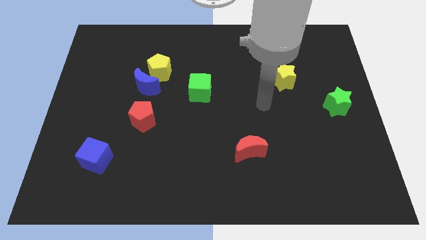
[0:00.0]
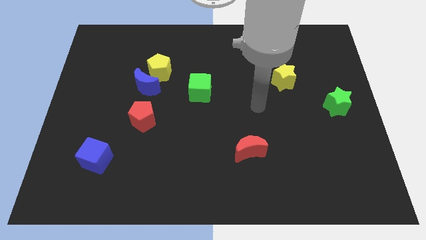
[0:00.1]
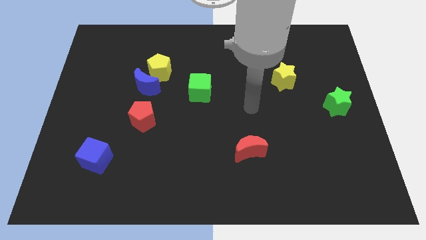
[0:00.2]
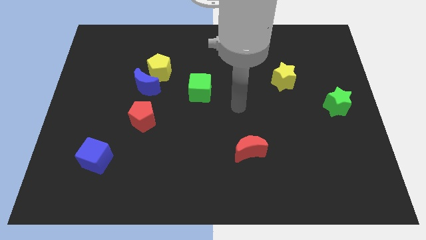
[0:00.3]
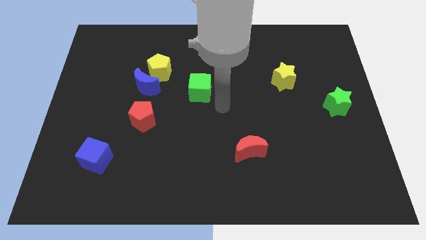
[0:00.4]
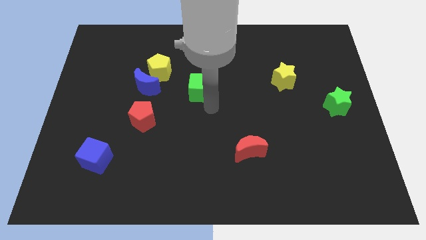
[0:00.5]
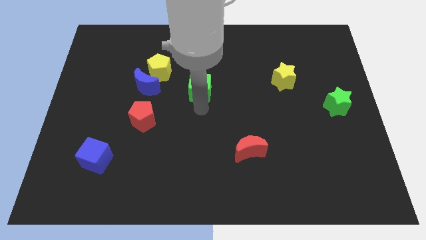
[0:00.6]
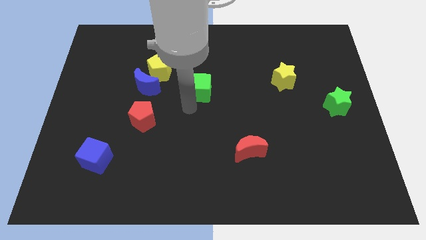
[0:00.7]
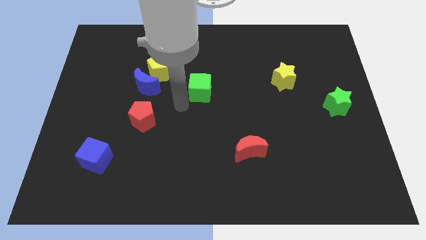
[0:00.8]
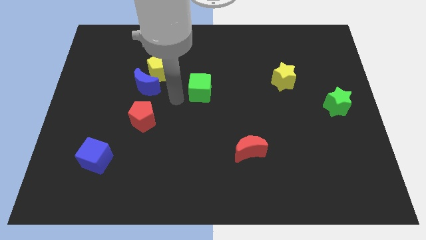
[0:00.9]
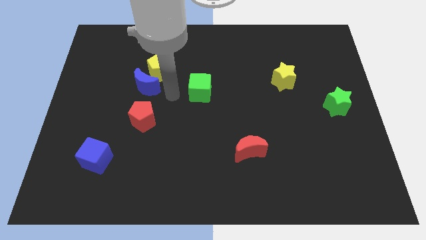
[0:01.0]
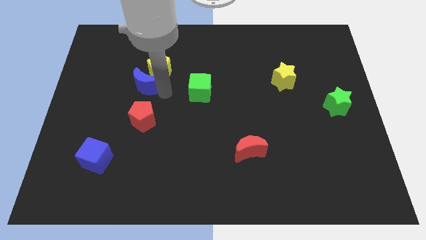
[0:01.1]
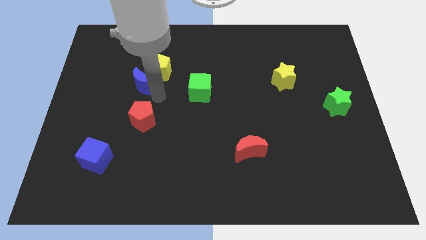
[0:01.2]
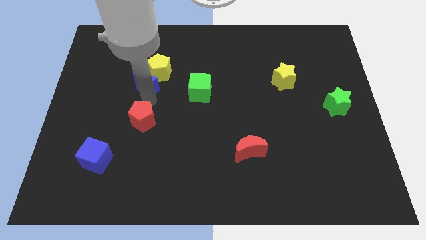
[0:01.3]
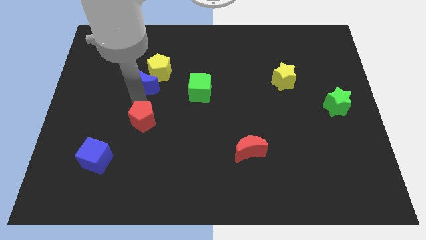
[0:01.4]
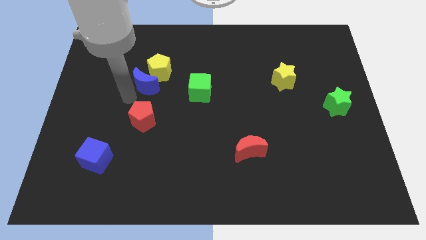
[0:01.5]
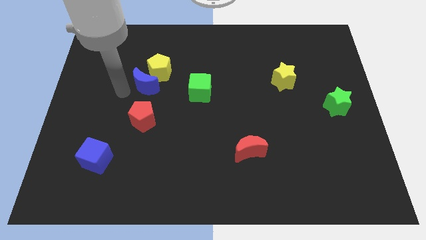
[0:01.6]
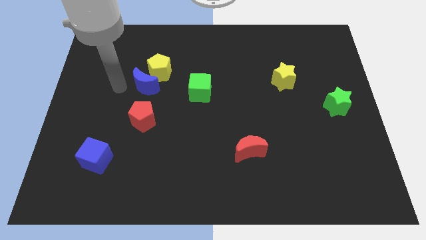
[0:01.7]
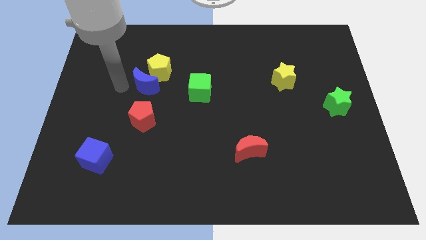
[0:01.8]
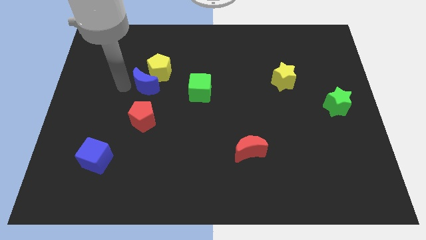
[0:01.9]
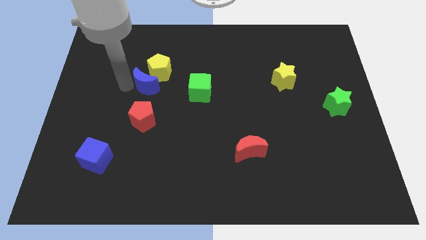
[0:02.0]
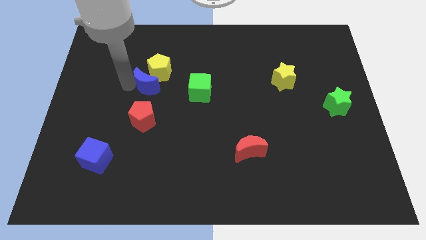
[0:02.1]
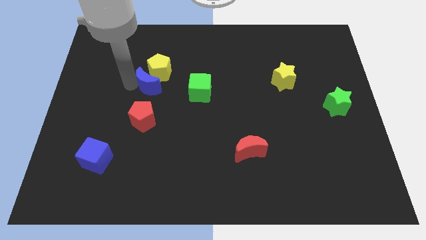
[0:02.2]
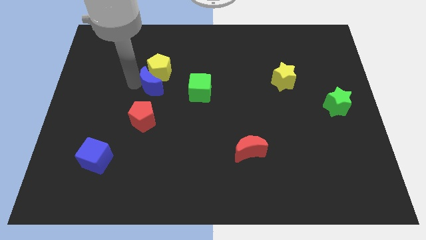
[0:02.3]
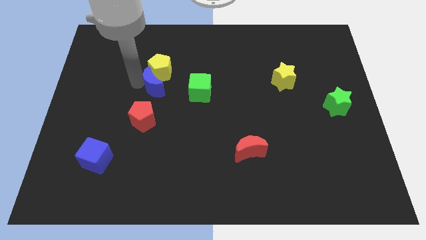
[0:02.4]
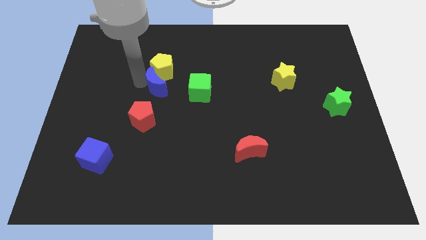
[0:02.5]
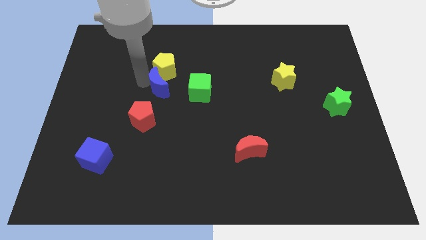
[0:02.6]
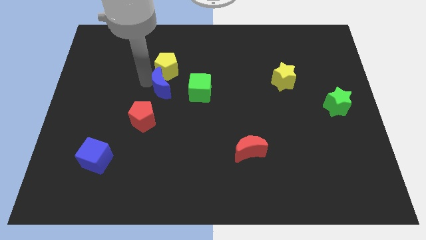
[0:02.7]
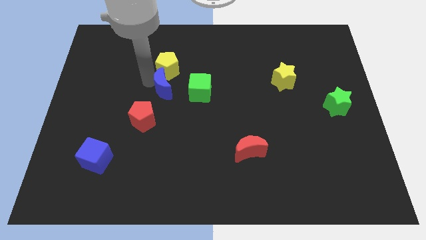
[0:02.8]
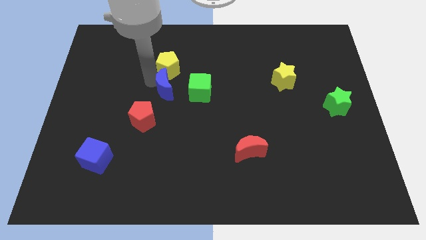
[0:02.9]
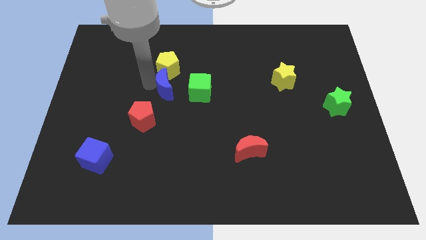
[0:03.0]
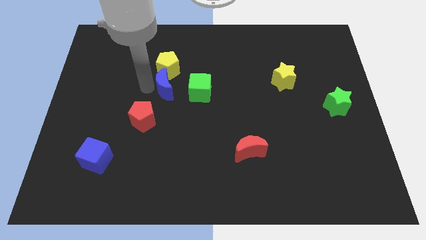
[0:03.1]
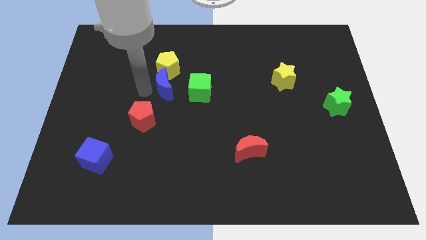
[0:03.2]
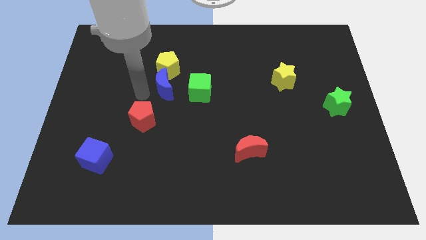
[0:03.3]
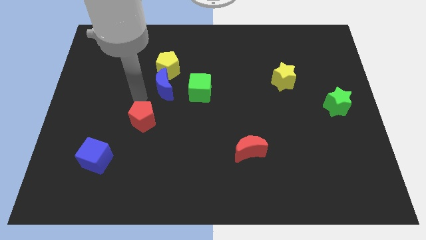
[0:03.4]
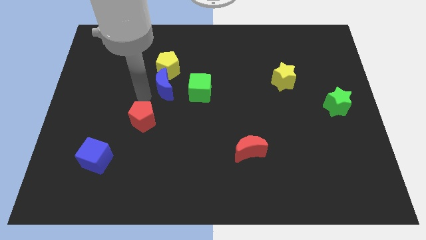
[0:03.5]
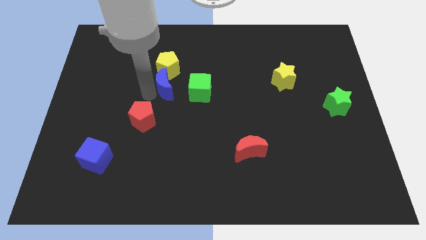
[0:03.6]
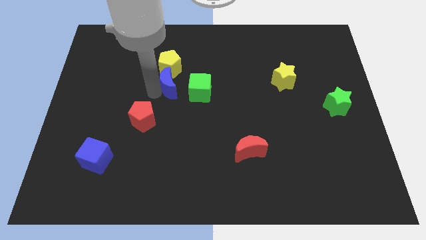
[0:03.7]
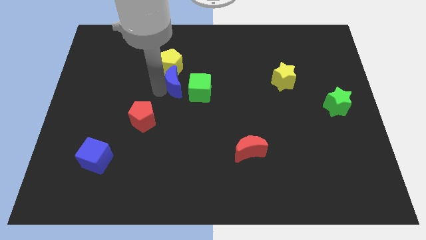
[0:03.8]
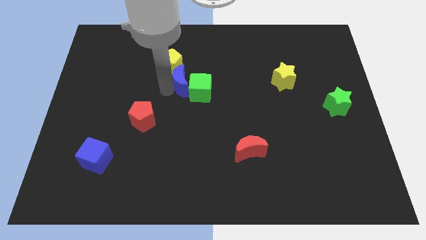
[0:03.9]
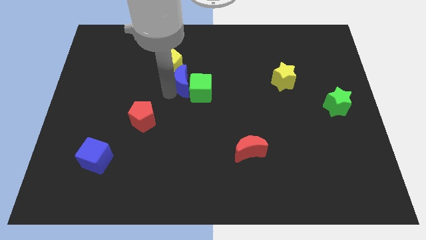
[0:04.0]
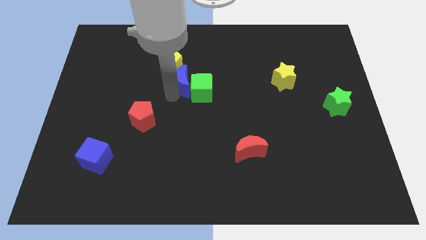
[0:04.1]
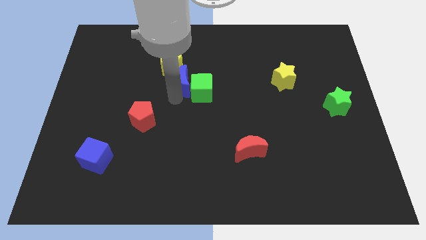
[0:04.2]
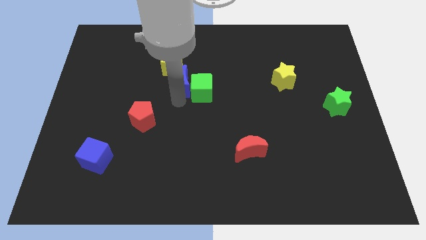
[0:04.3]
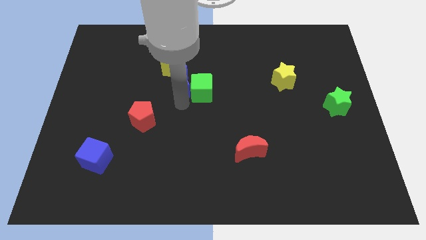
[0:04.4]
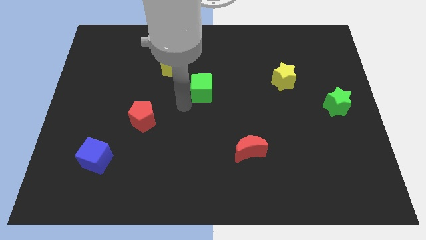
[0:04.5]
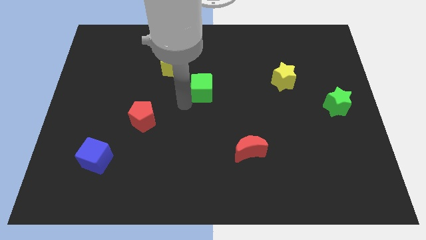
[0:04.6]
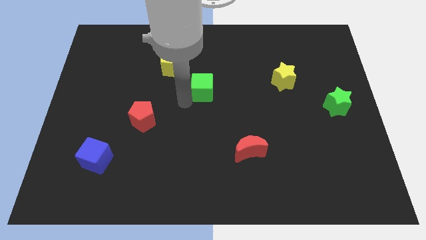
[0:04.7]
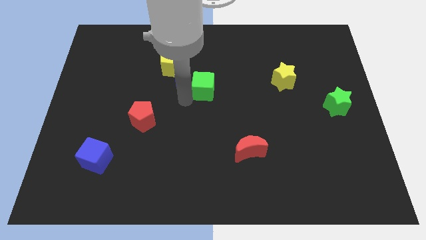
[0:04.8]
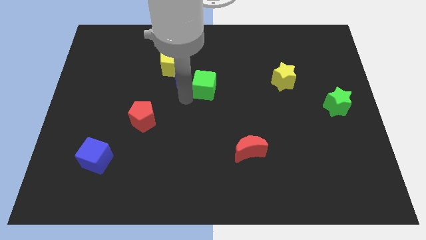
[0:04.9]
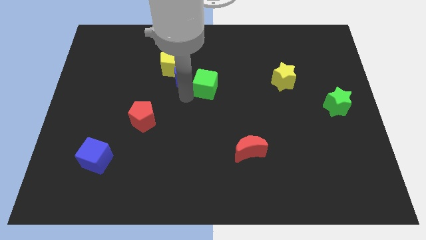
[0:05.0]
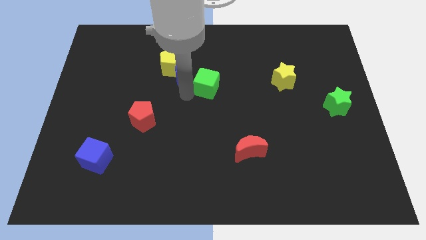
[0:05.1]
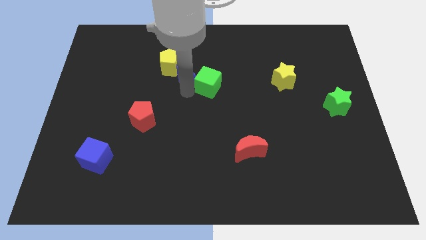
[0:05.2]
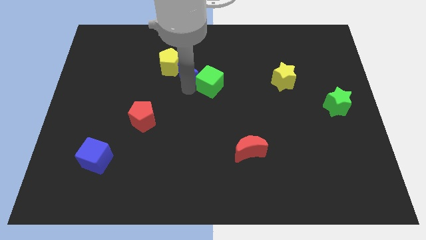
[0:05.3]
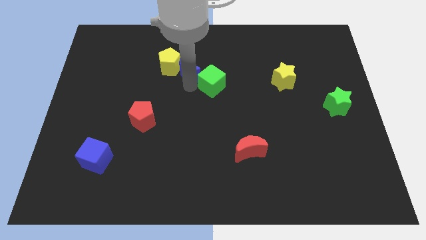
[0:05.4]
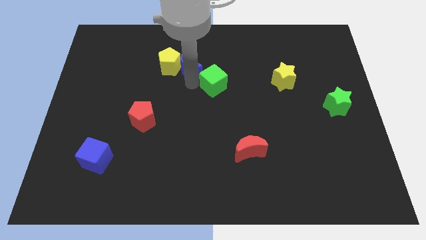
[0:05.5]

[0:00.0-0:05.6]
slide the blue moon to the top right of the yellow pentagon

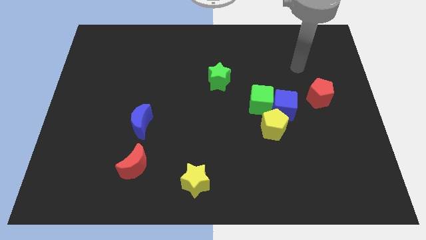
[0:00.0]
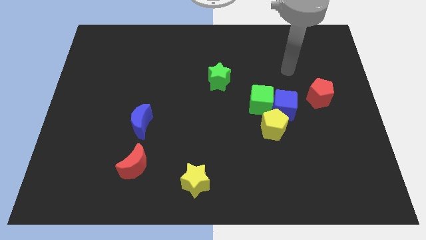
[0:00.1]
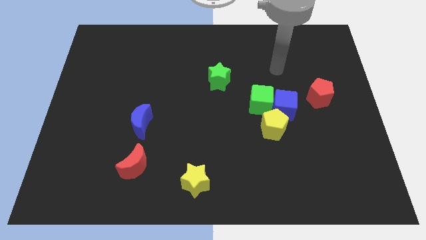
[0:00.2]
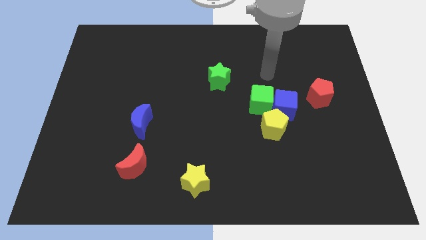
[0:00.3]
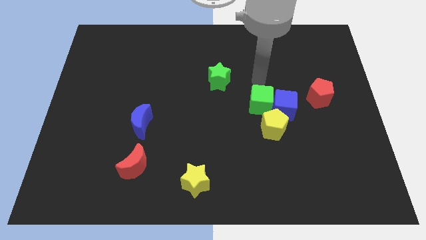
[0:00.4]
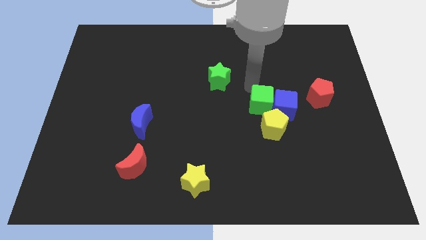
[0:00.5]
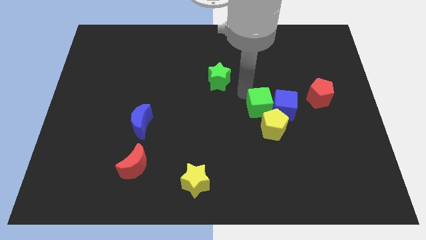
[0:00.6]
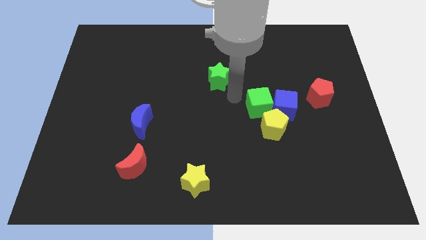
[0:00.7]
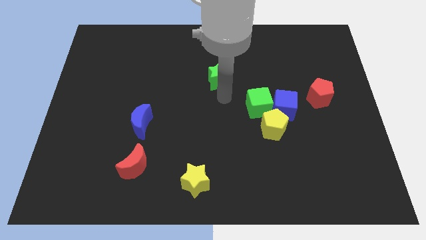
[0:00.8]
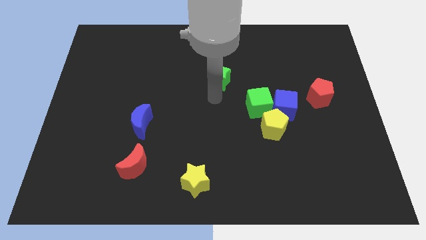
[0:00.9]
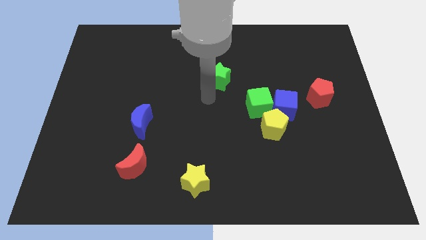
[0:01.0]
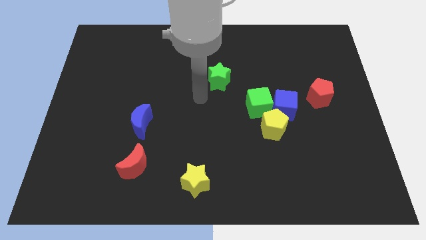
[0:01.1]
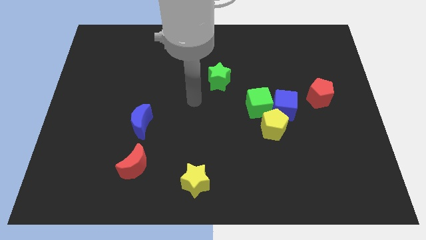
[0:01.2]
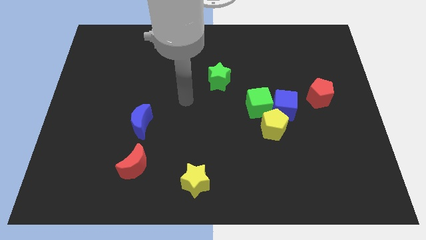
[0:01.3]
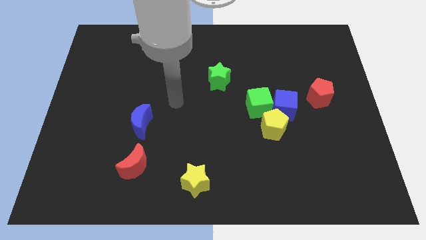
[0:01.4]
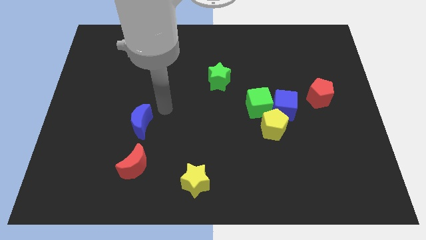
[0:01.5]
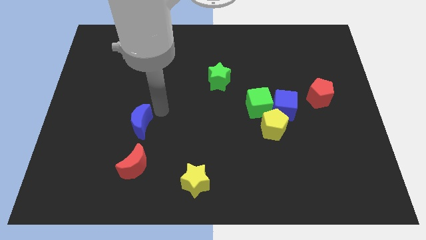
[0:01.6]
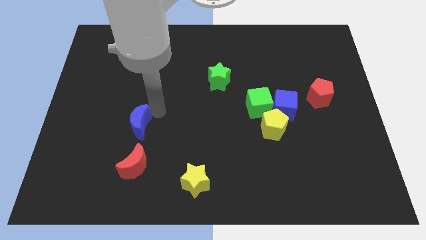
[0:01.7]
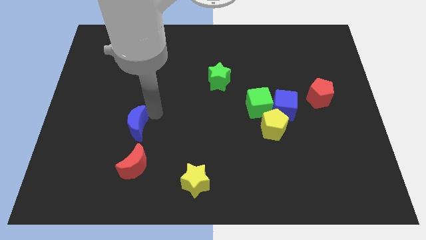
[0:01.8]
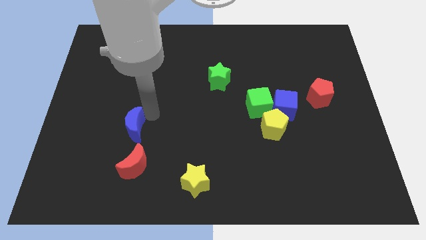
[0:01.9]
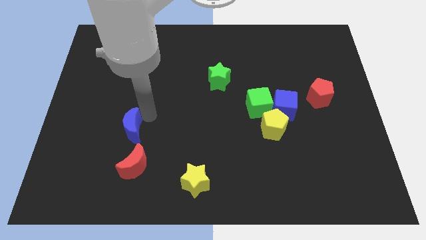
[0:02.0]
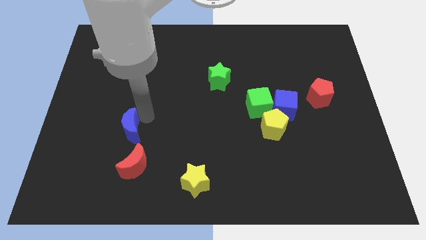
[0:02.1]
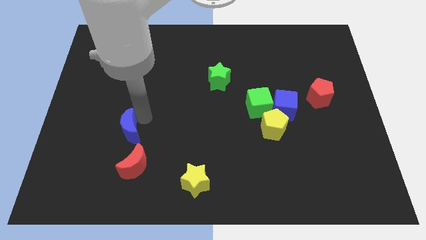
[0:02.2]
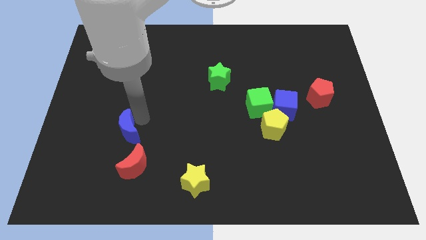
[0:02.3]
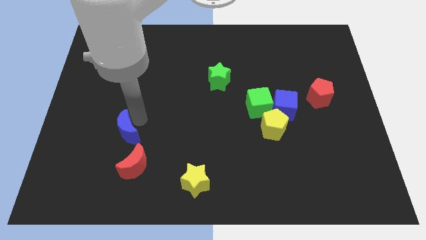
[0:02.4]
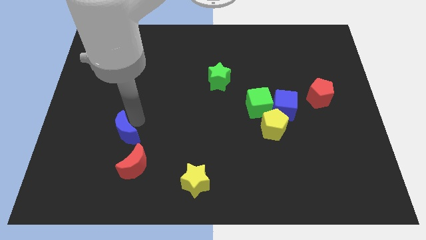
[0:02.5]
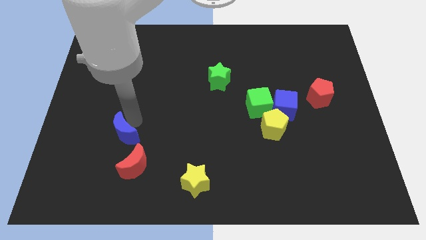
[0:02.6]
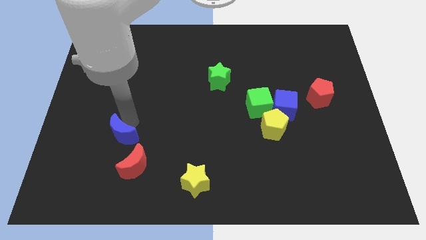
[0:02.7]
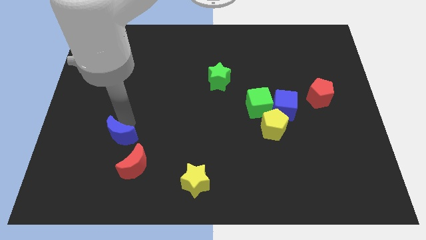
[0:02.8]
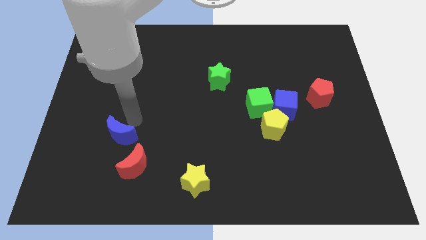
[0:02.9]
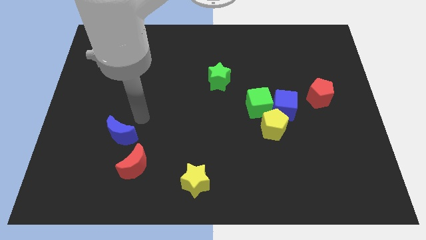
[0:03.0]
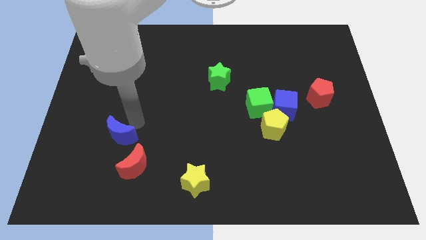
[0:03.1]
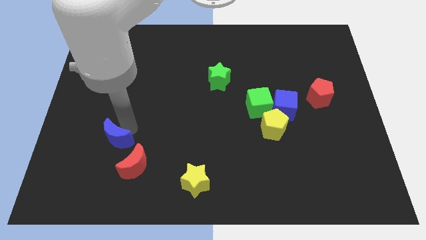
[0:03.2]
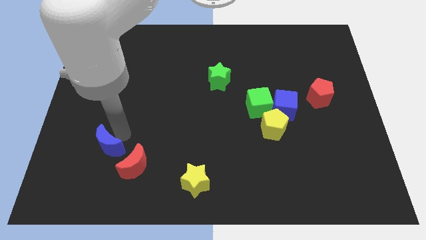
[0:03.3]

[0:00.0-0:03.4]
push the blue moon to the left of the red moon
